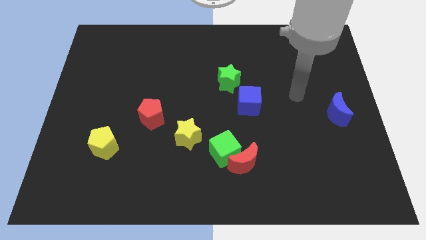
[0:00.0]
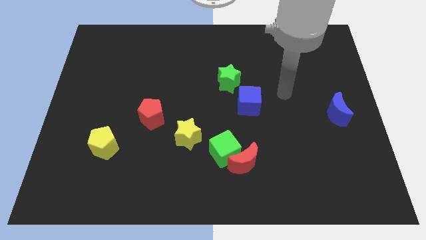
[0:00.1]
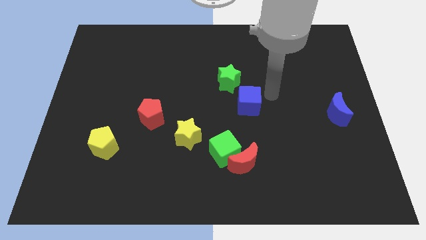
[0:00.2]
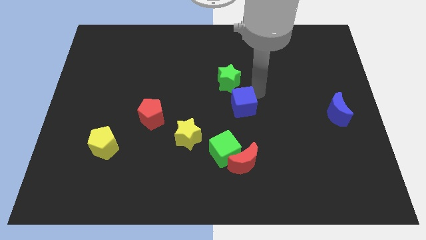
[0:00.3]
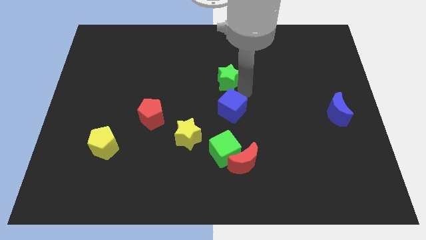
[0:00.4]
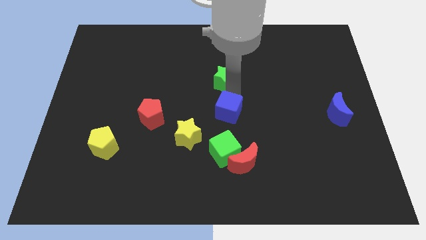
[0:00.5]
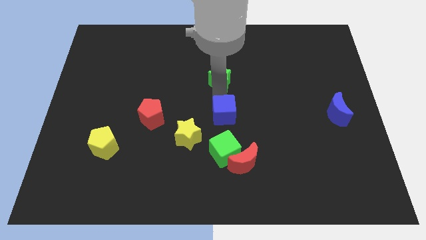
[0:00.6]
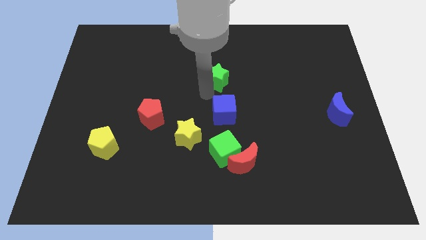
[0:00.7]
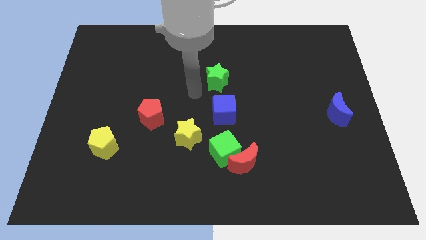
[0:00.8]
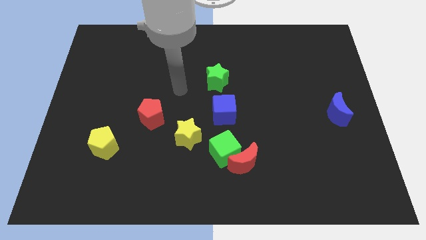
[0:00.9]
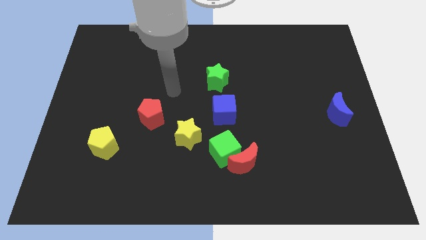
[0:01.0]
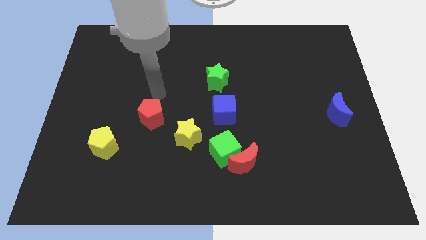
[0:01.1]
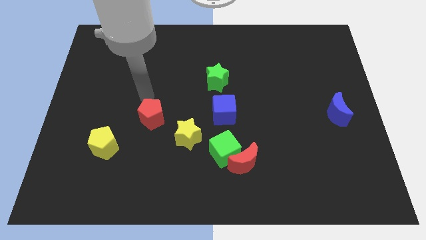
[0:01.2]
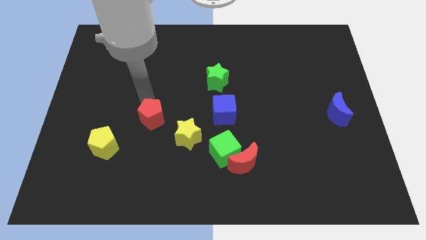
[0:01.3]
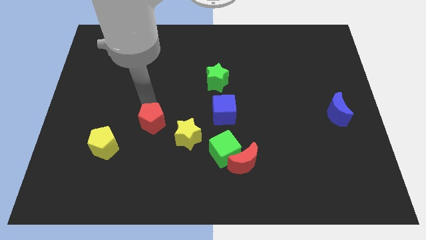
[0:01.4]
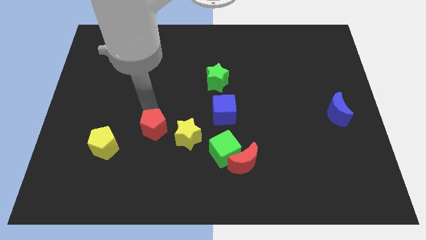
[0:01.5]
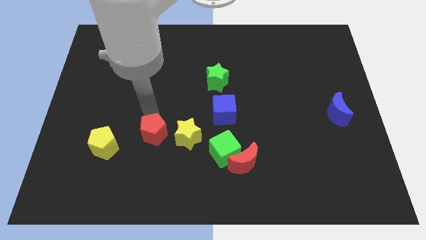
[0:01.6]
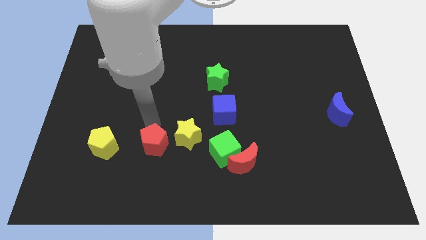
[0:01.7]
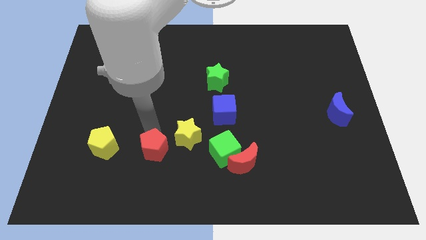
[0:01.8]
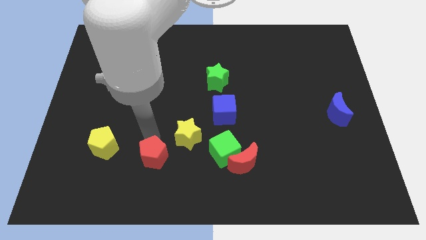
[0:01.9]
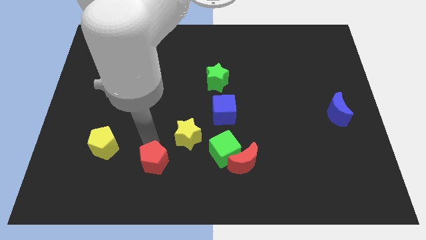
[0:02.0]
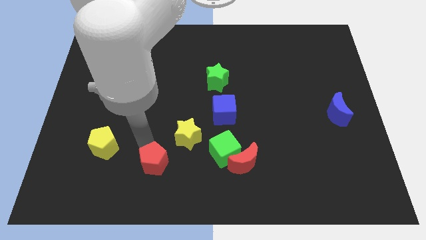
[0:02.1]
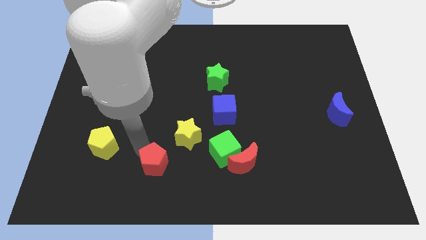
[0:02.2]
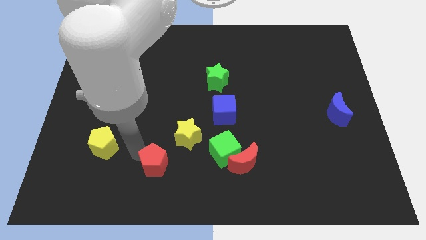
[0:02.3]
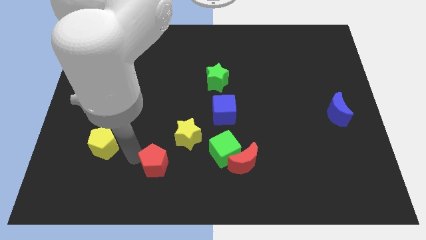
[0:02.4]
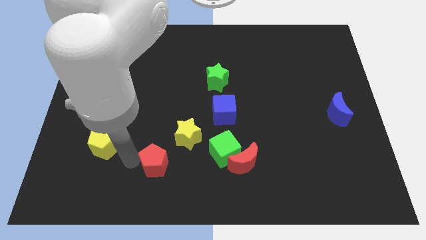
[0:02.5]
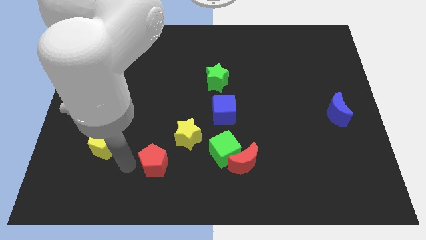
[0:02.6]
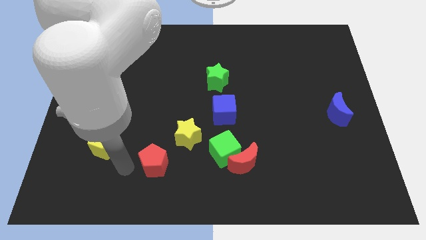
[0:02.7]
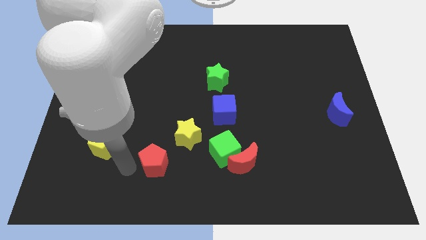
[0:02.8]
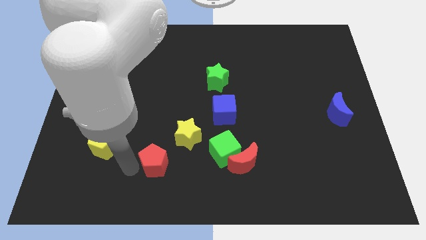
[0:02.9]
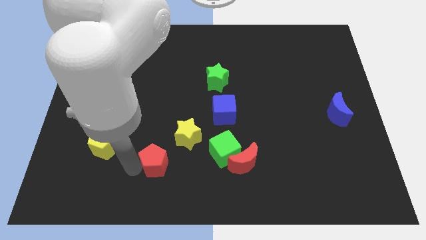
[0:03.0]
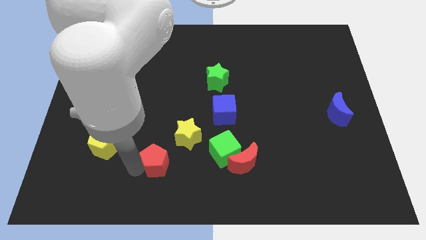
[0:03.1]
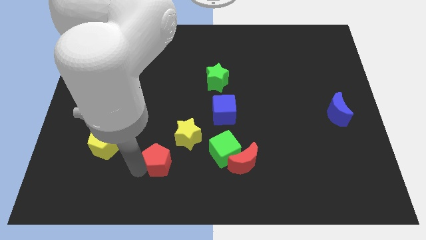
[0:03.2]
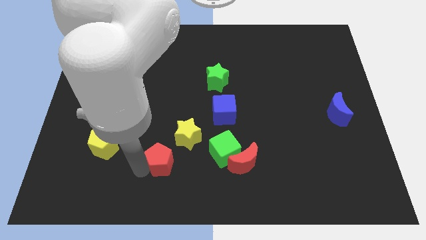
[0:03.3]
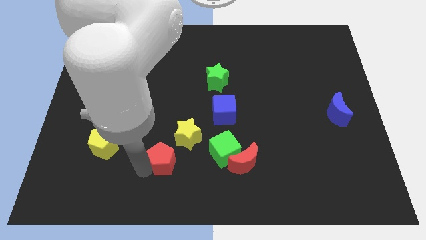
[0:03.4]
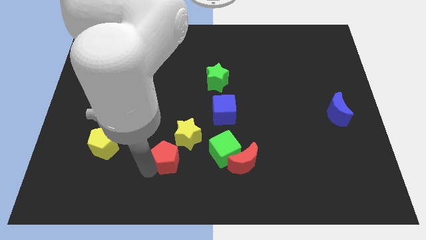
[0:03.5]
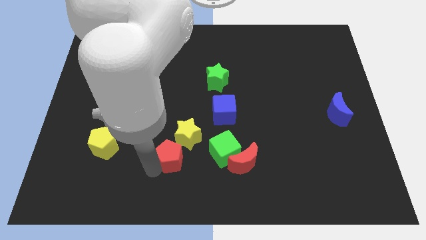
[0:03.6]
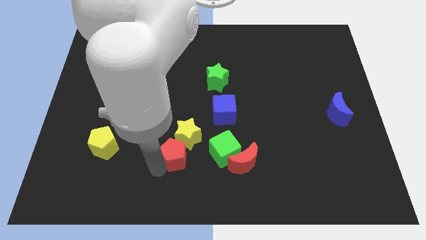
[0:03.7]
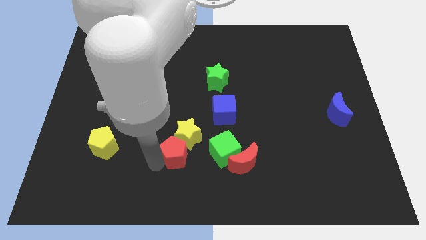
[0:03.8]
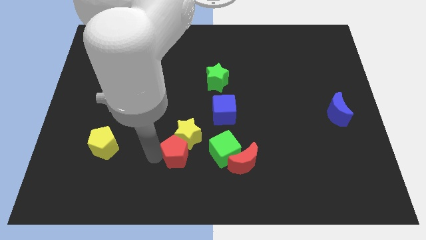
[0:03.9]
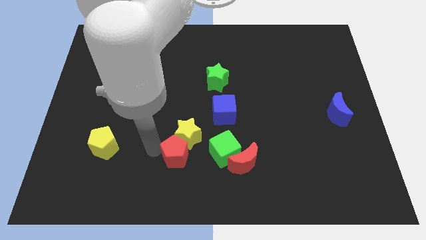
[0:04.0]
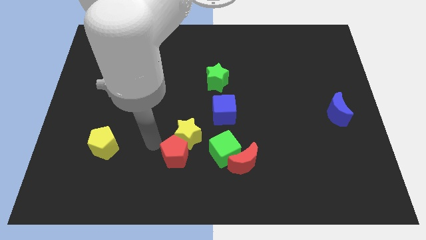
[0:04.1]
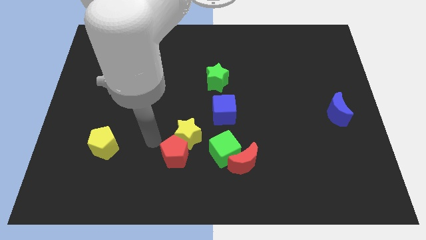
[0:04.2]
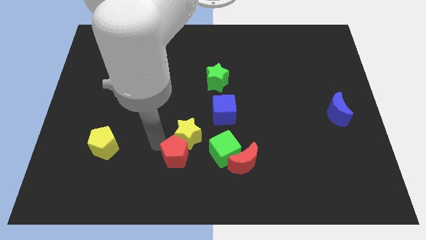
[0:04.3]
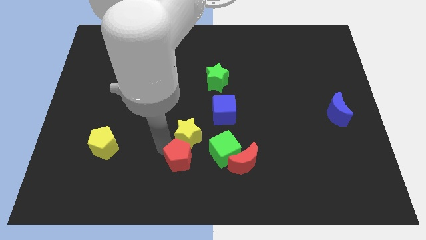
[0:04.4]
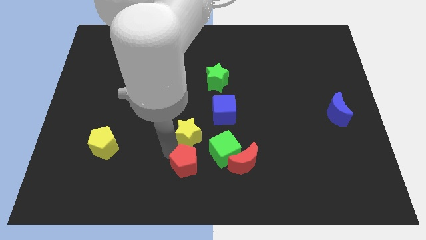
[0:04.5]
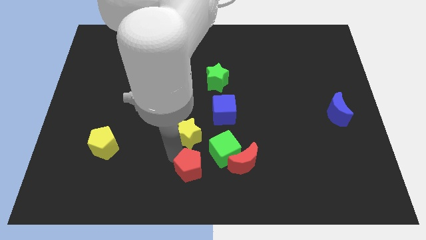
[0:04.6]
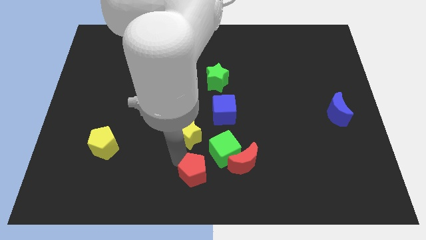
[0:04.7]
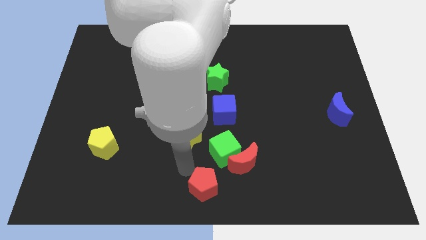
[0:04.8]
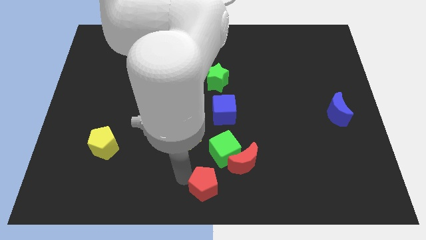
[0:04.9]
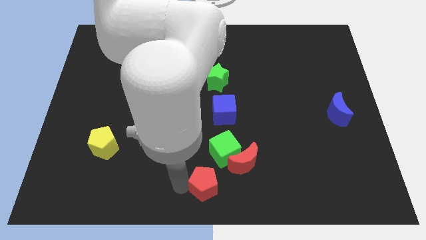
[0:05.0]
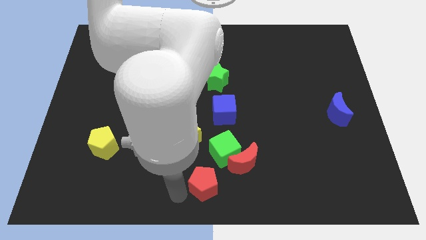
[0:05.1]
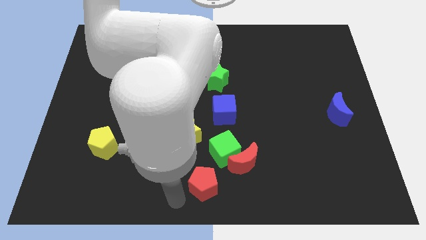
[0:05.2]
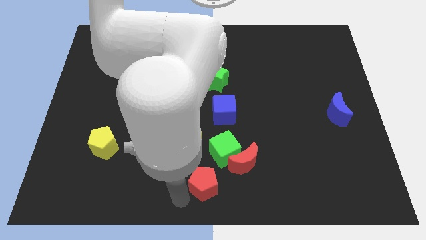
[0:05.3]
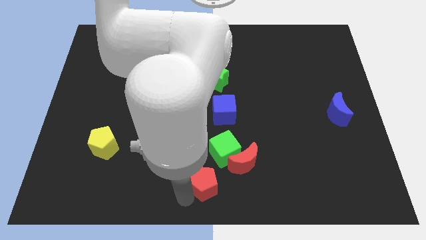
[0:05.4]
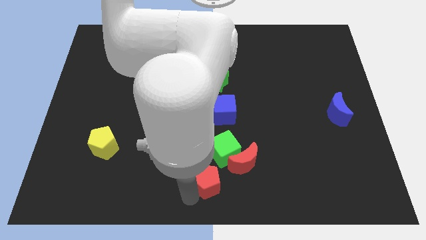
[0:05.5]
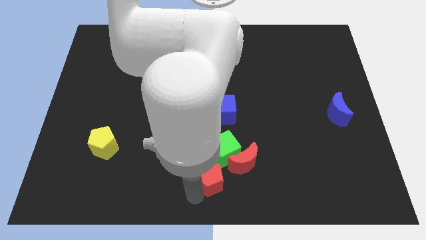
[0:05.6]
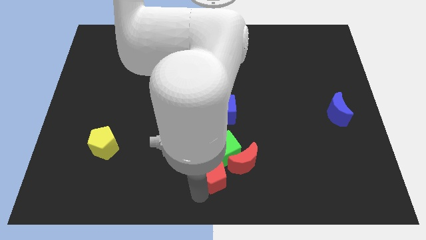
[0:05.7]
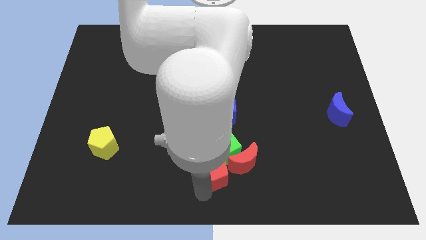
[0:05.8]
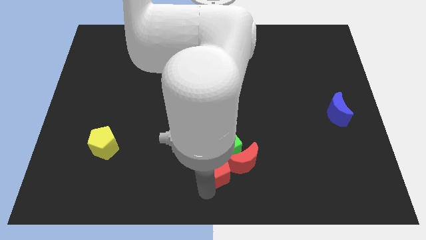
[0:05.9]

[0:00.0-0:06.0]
put the red pentagon towards the red moon
